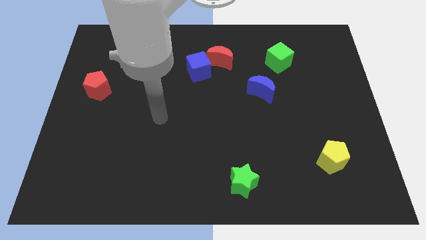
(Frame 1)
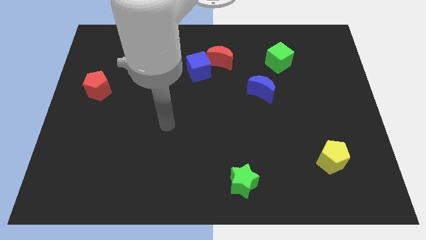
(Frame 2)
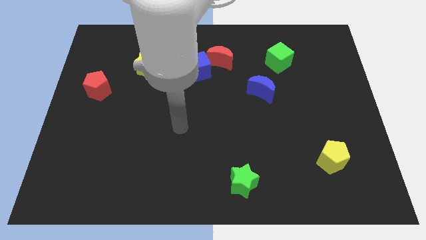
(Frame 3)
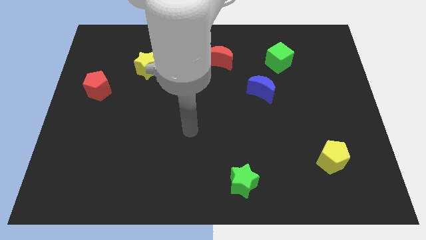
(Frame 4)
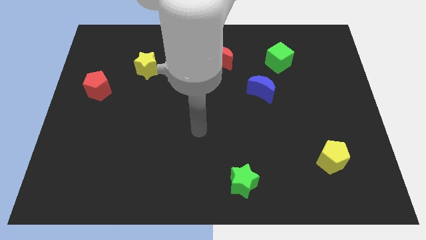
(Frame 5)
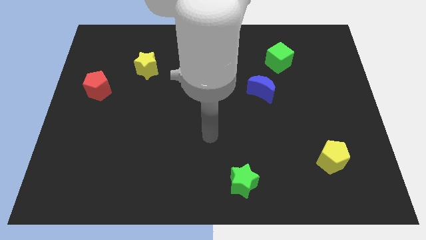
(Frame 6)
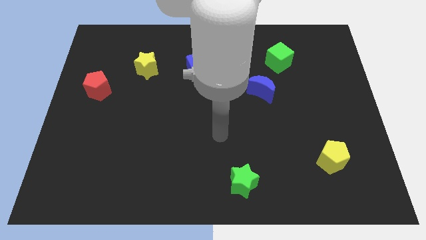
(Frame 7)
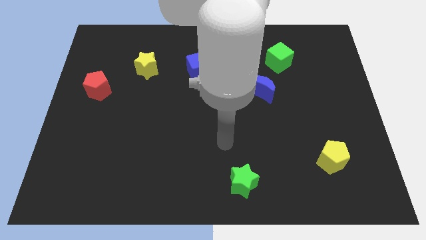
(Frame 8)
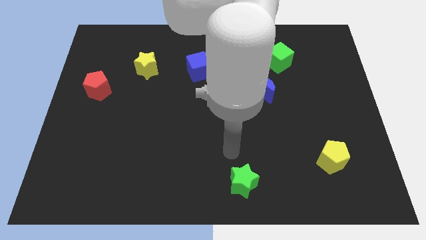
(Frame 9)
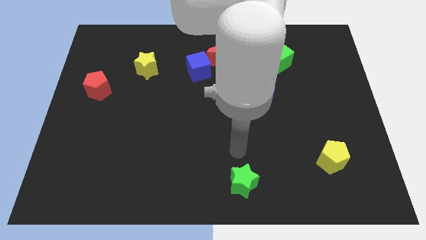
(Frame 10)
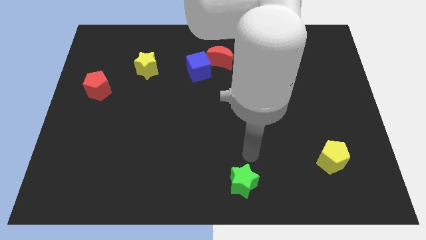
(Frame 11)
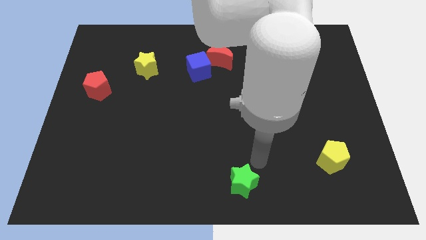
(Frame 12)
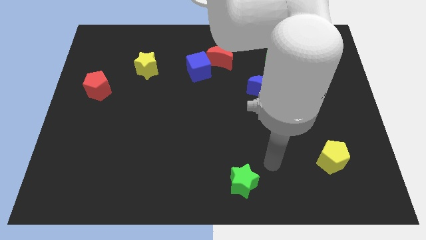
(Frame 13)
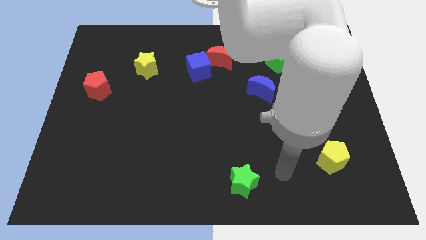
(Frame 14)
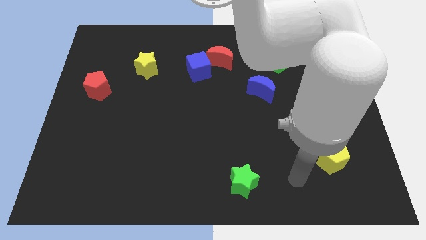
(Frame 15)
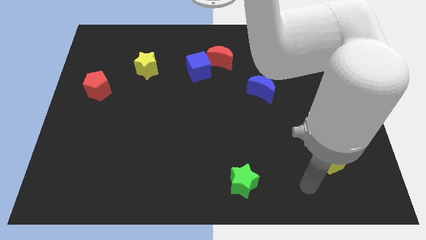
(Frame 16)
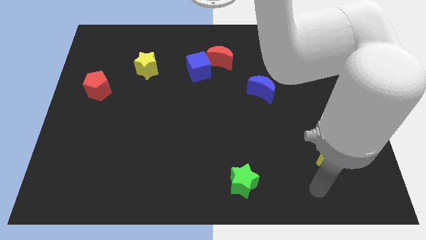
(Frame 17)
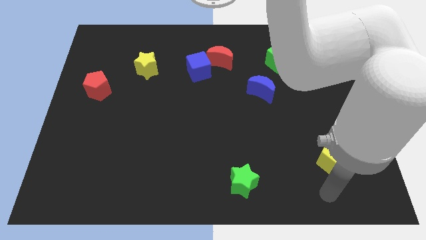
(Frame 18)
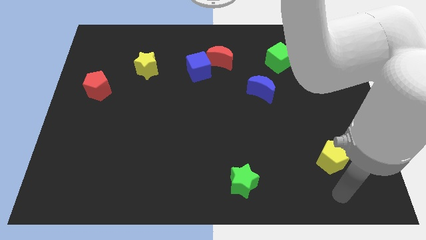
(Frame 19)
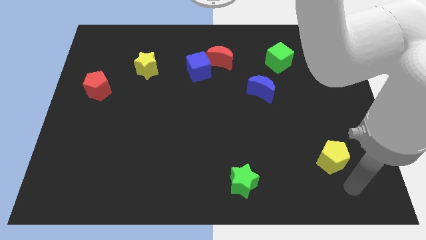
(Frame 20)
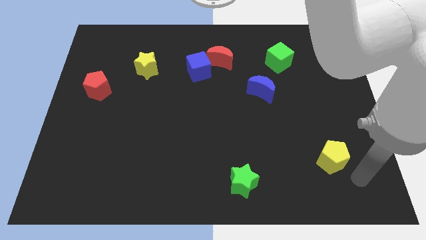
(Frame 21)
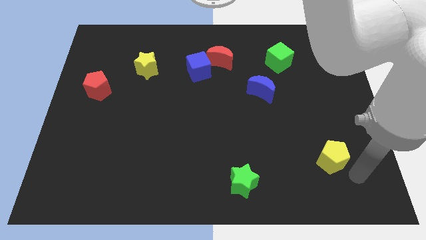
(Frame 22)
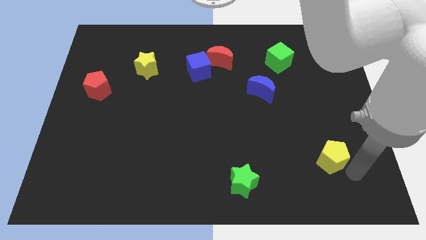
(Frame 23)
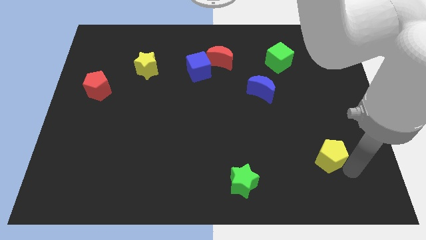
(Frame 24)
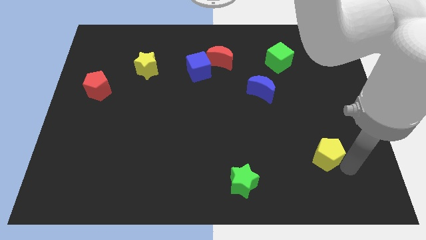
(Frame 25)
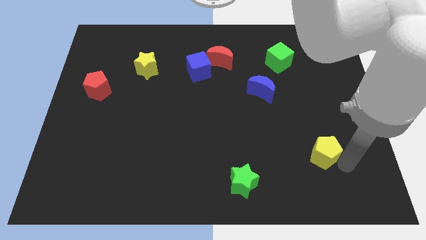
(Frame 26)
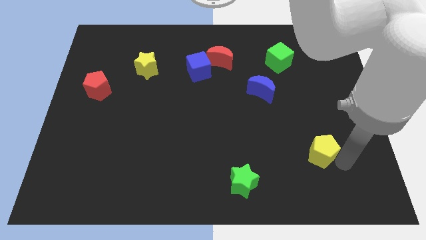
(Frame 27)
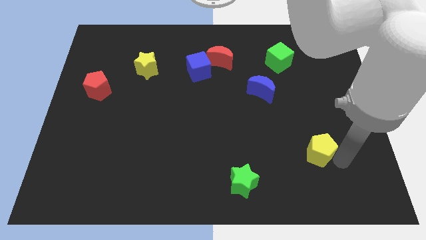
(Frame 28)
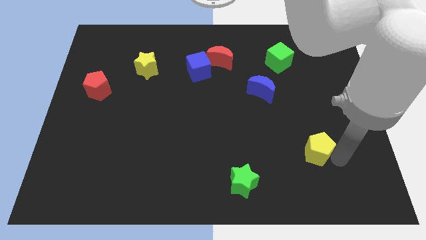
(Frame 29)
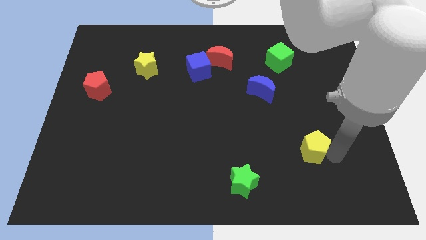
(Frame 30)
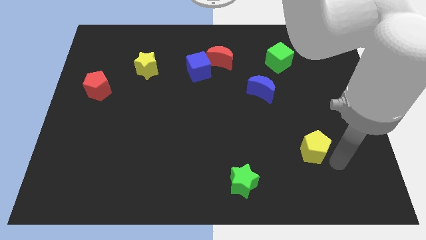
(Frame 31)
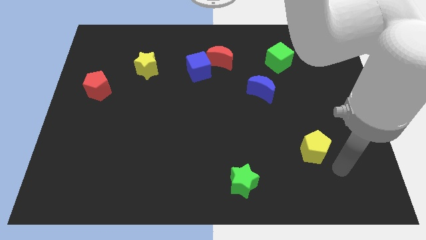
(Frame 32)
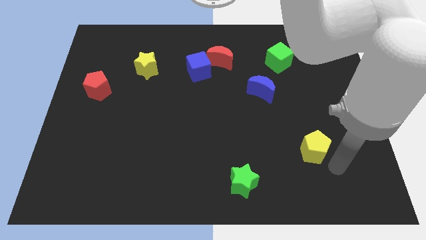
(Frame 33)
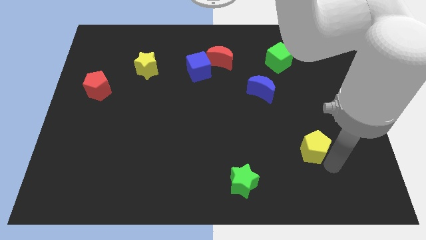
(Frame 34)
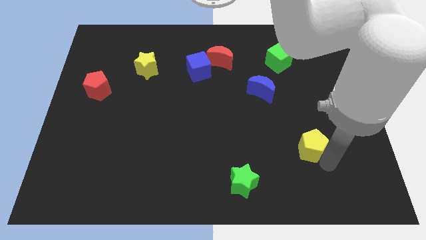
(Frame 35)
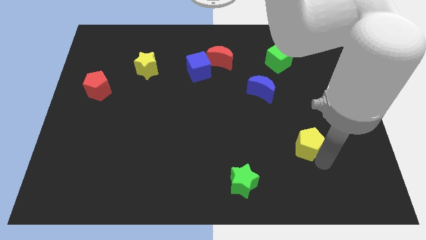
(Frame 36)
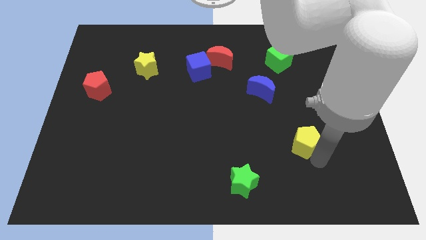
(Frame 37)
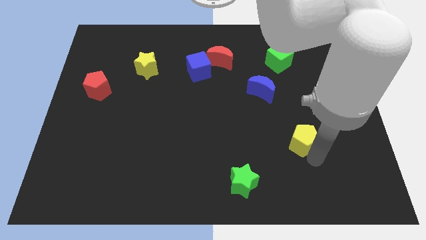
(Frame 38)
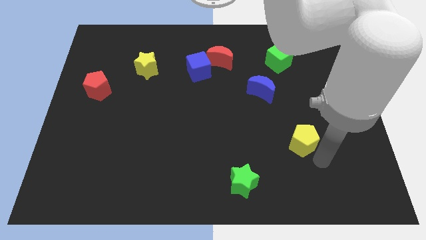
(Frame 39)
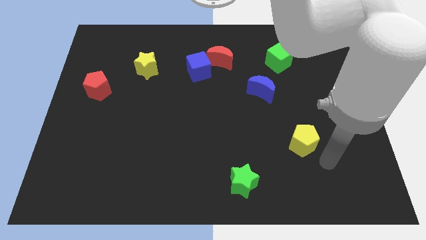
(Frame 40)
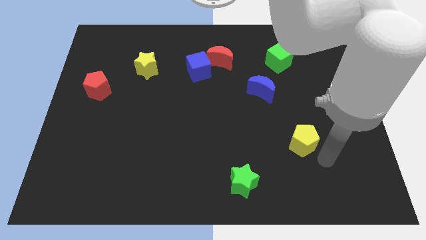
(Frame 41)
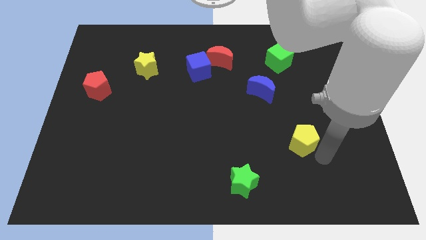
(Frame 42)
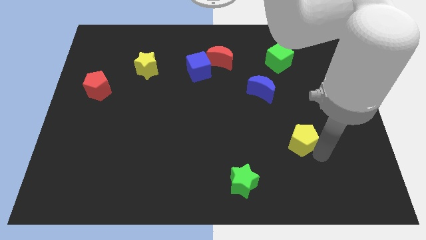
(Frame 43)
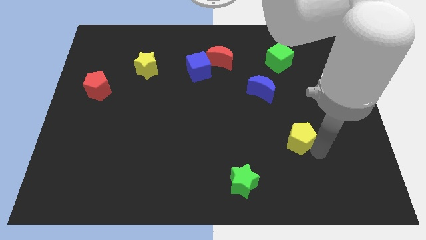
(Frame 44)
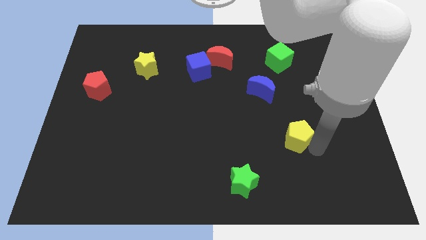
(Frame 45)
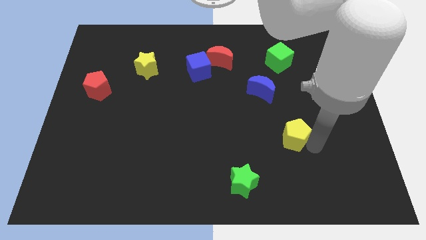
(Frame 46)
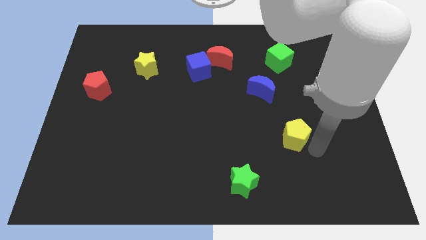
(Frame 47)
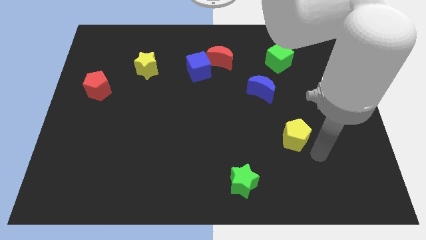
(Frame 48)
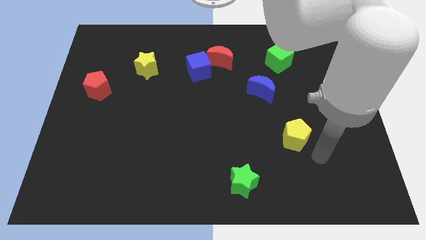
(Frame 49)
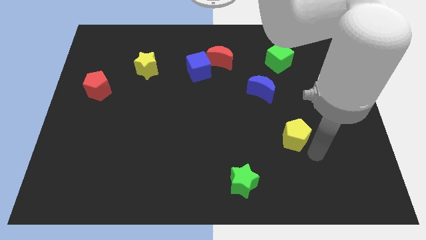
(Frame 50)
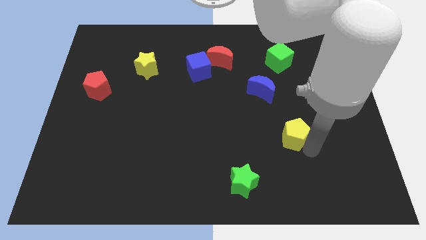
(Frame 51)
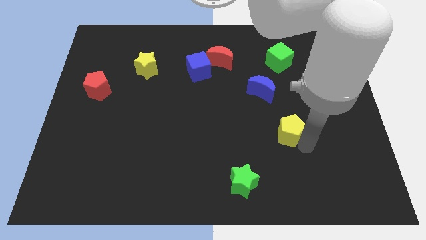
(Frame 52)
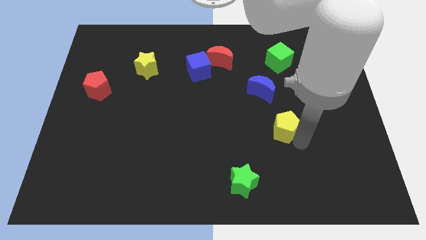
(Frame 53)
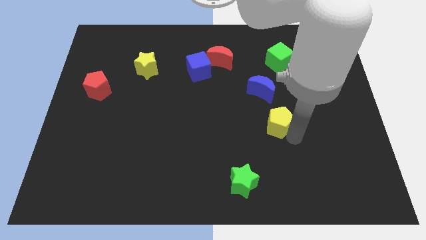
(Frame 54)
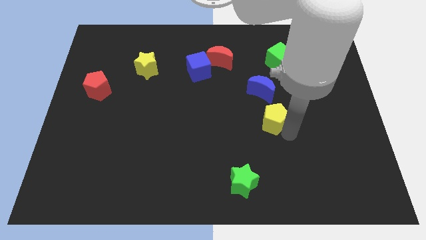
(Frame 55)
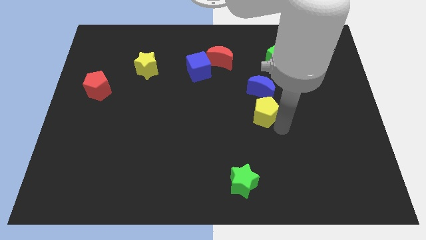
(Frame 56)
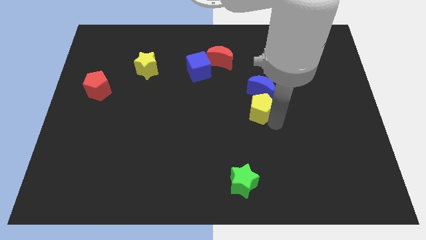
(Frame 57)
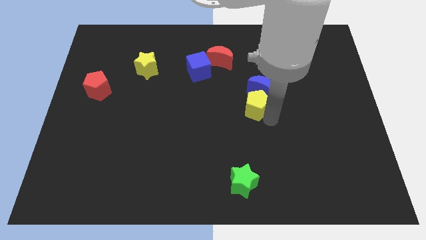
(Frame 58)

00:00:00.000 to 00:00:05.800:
push the yellow pentagon upwards and left diagonally

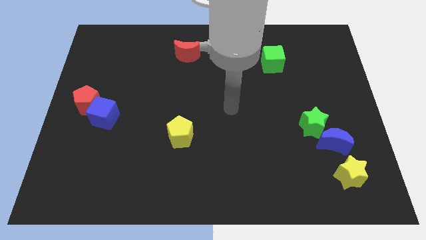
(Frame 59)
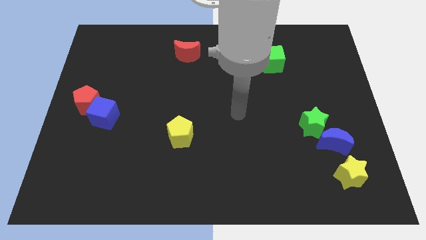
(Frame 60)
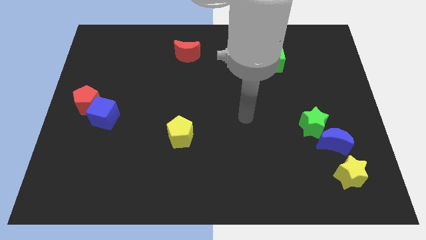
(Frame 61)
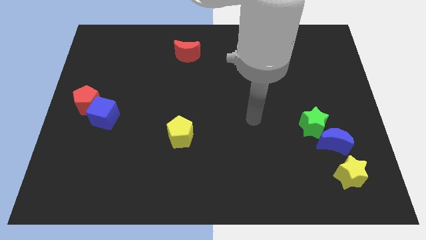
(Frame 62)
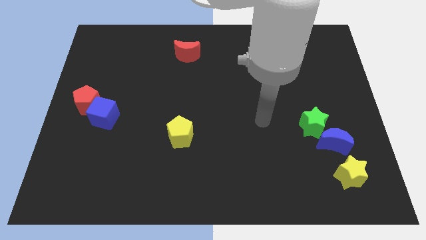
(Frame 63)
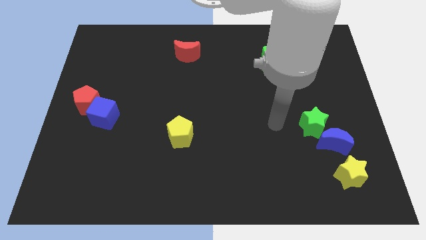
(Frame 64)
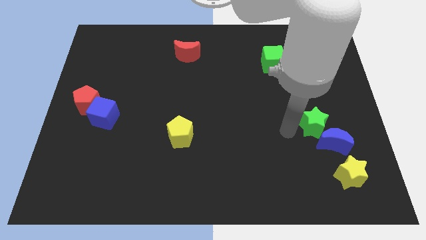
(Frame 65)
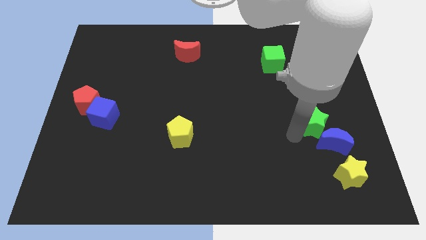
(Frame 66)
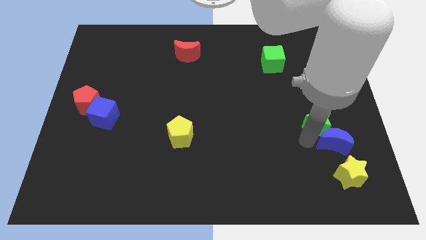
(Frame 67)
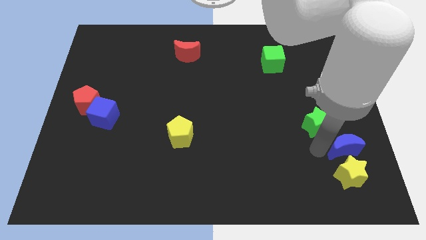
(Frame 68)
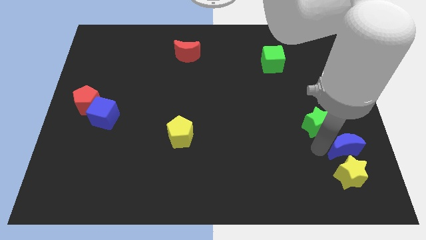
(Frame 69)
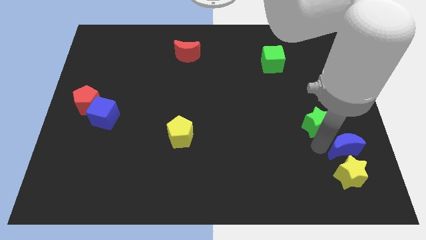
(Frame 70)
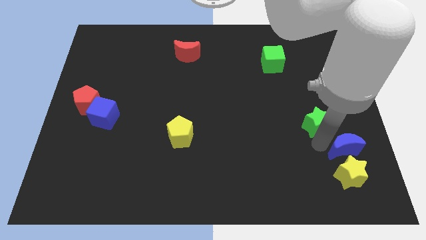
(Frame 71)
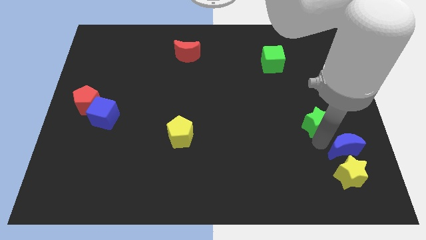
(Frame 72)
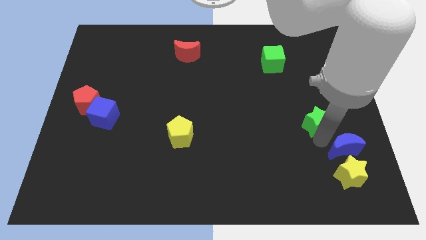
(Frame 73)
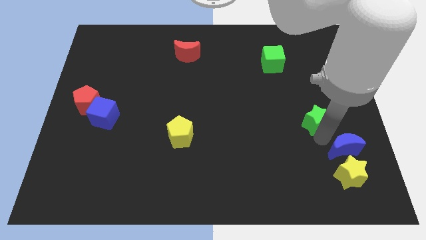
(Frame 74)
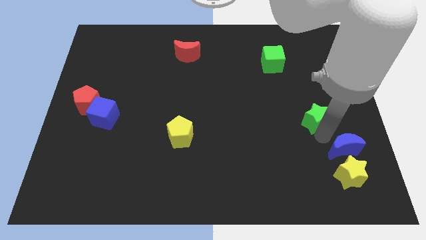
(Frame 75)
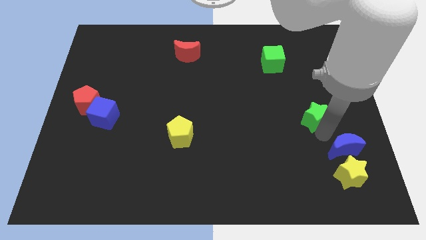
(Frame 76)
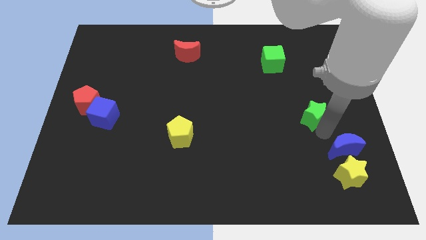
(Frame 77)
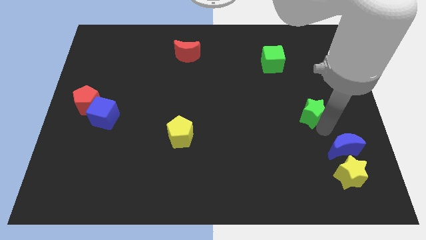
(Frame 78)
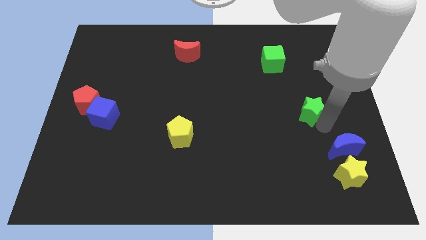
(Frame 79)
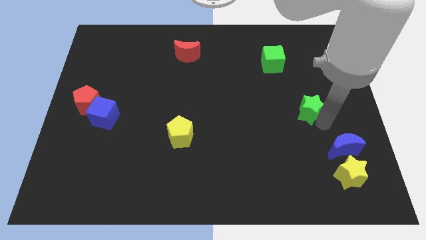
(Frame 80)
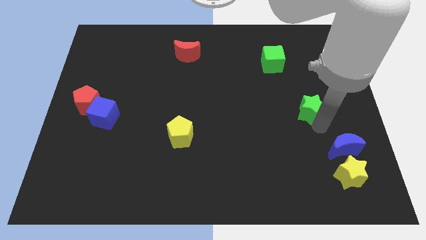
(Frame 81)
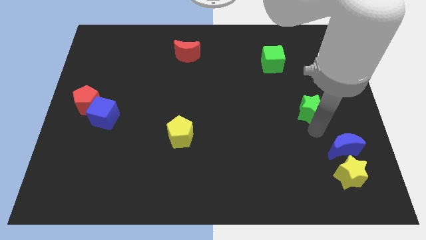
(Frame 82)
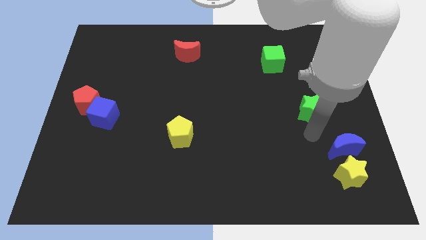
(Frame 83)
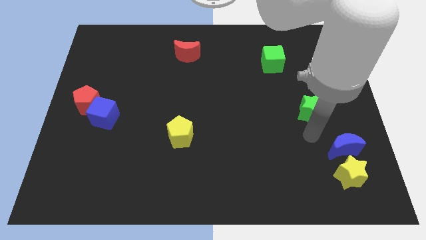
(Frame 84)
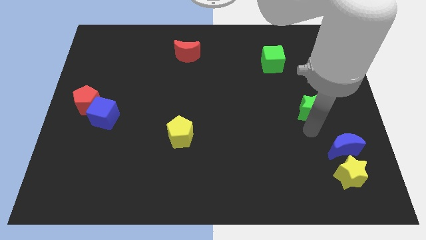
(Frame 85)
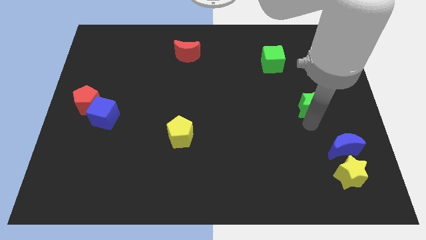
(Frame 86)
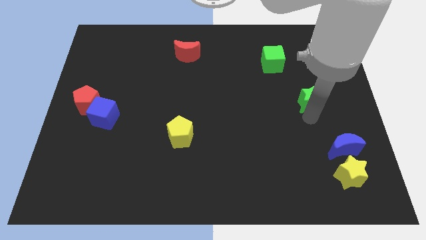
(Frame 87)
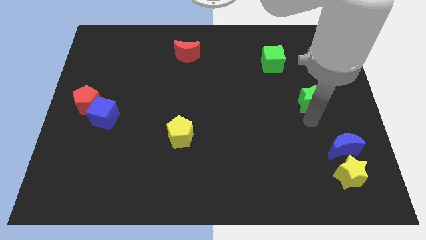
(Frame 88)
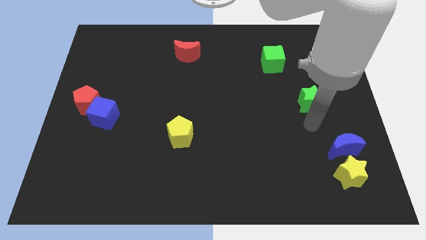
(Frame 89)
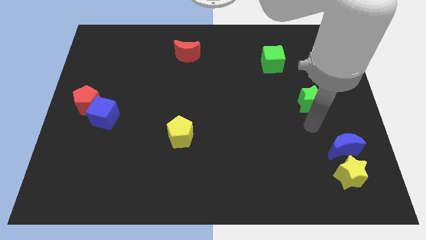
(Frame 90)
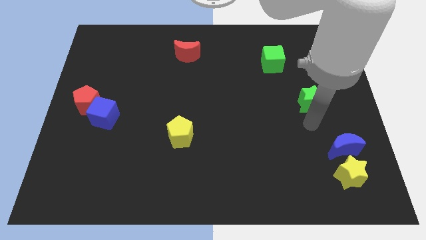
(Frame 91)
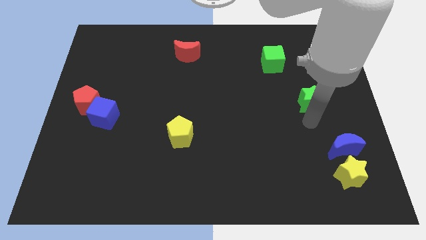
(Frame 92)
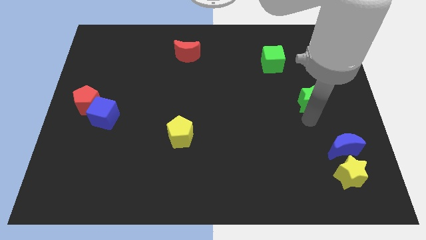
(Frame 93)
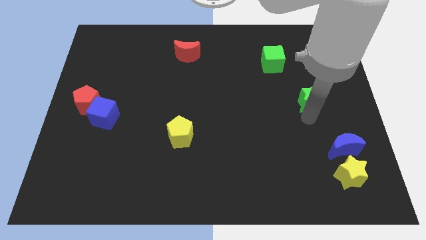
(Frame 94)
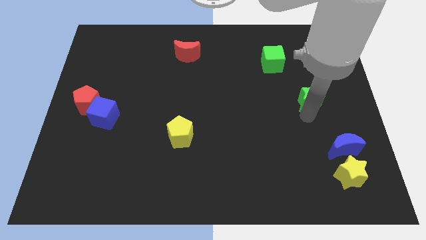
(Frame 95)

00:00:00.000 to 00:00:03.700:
slightly push the green star upwards
